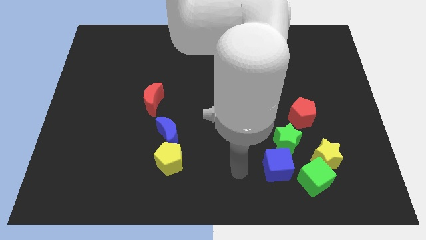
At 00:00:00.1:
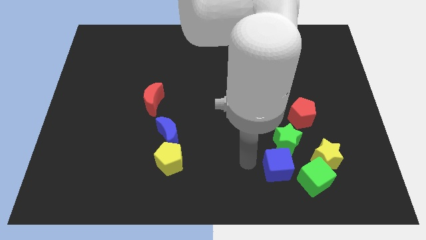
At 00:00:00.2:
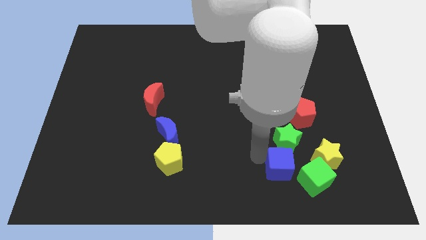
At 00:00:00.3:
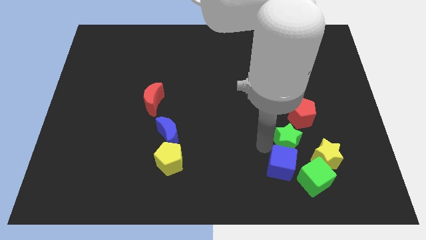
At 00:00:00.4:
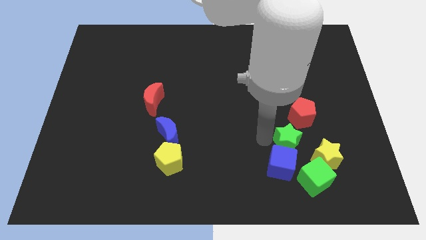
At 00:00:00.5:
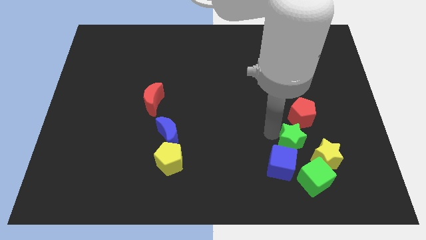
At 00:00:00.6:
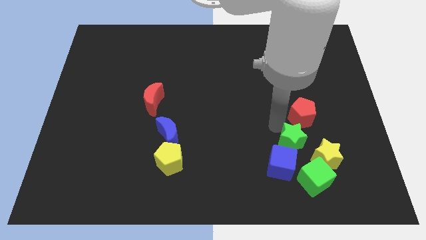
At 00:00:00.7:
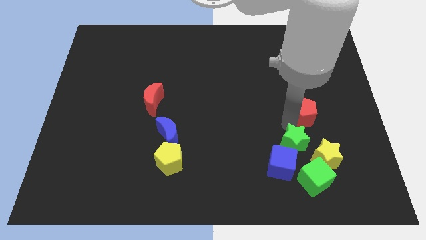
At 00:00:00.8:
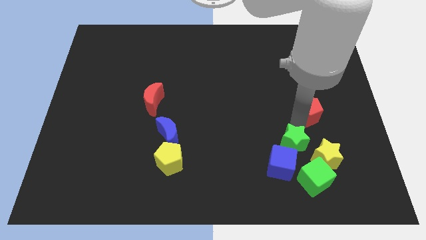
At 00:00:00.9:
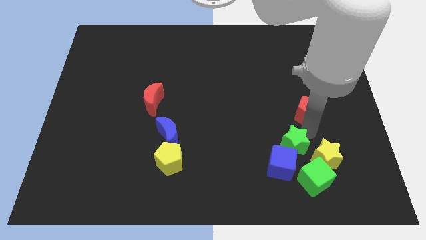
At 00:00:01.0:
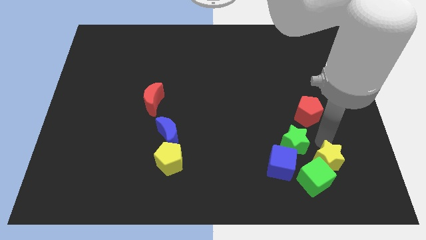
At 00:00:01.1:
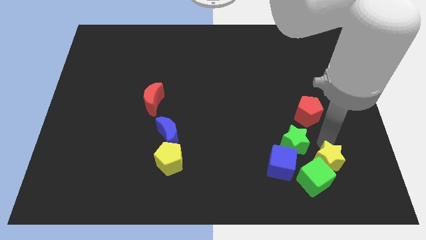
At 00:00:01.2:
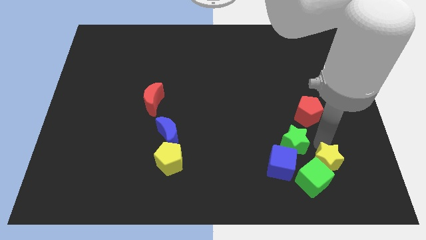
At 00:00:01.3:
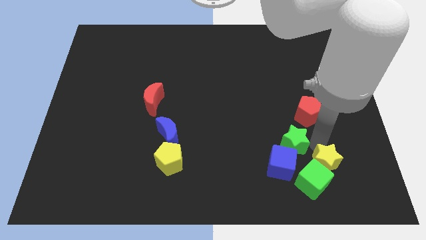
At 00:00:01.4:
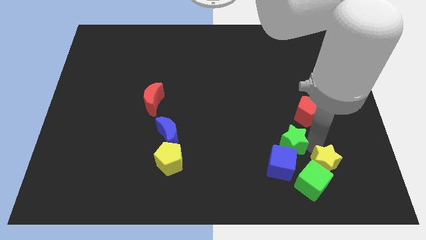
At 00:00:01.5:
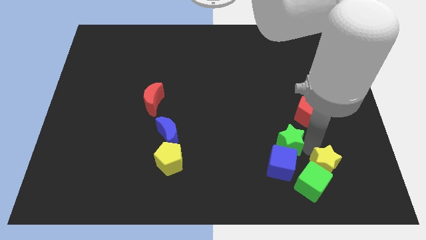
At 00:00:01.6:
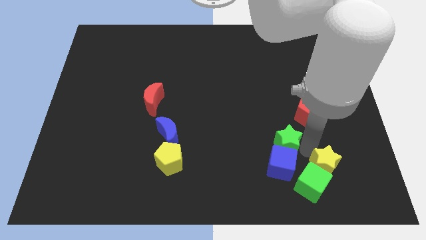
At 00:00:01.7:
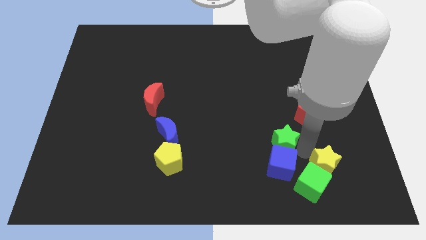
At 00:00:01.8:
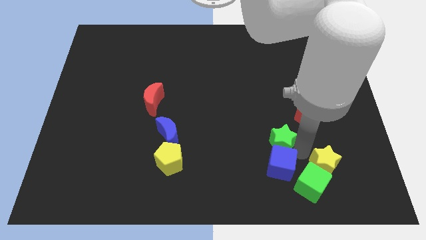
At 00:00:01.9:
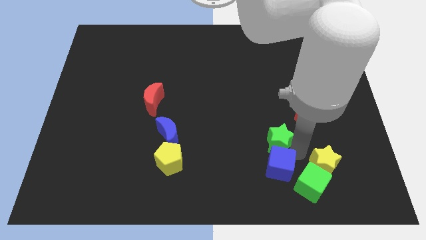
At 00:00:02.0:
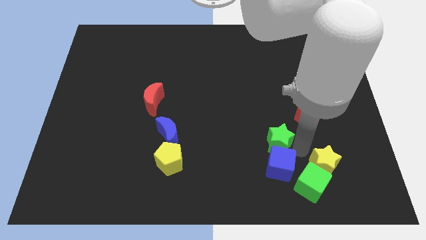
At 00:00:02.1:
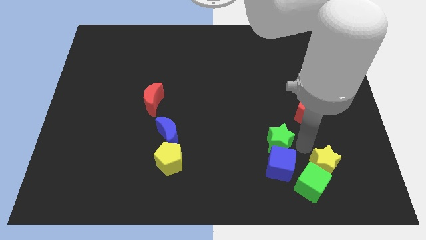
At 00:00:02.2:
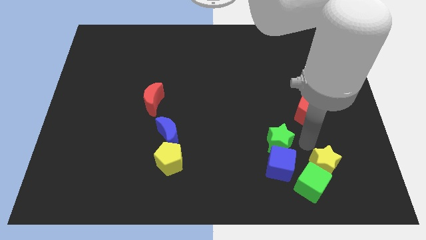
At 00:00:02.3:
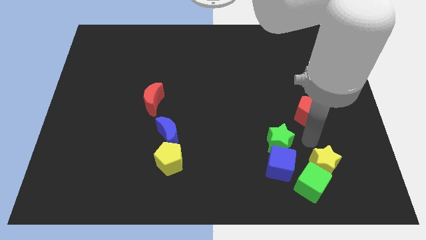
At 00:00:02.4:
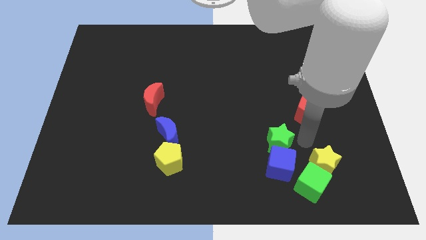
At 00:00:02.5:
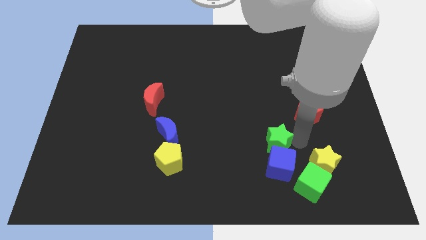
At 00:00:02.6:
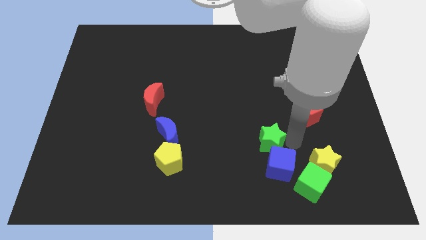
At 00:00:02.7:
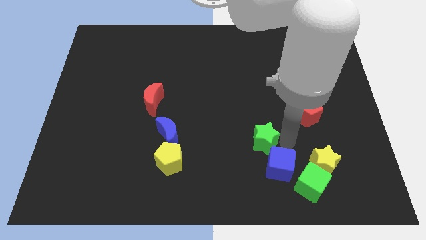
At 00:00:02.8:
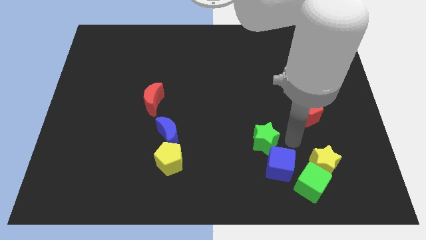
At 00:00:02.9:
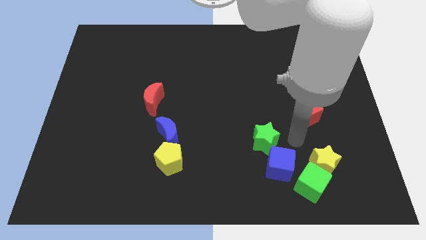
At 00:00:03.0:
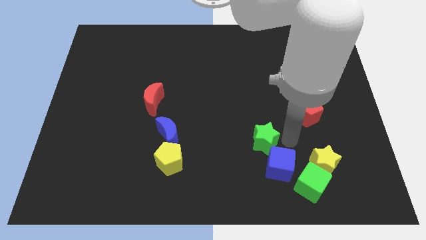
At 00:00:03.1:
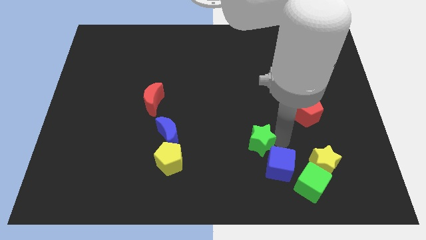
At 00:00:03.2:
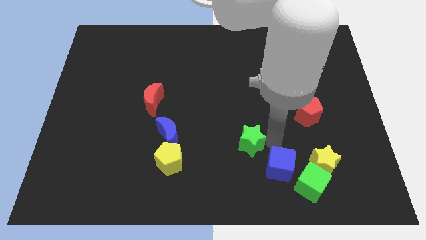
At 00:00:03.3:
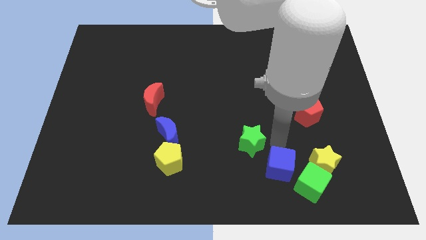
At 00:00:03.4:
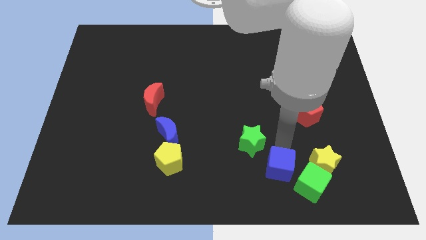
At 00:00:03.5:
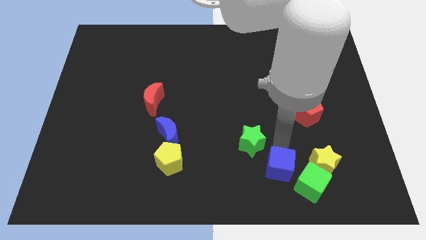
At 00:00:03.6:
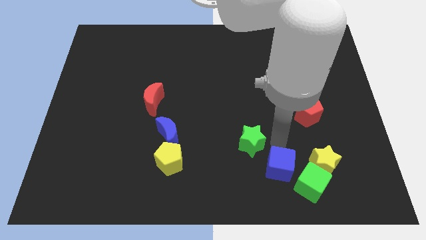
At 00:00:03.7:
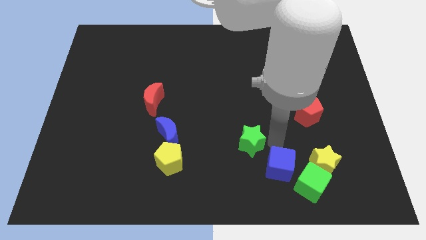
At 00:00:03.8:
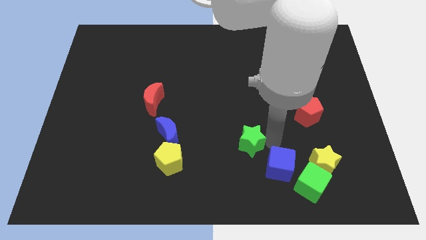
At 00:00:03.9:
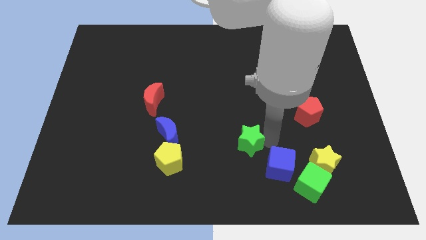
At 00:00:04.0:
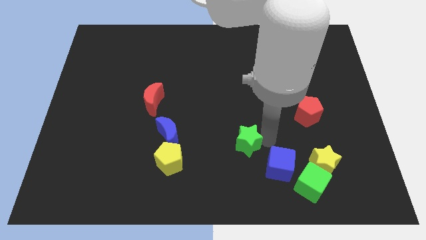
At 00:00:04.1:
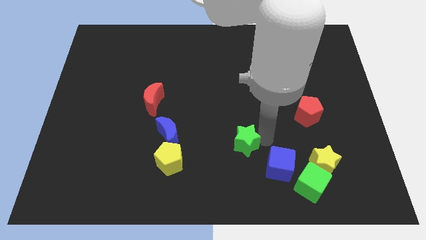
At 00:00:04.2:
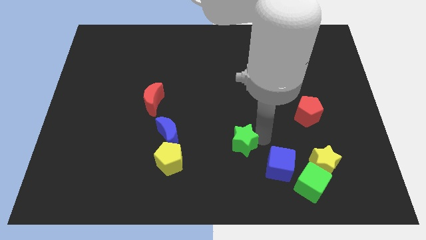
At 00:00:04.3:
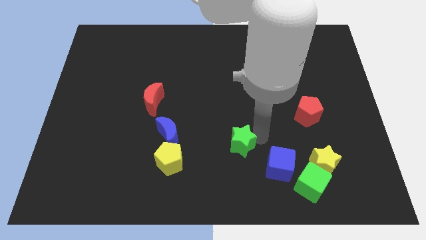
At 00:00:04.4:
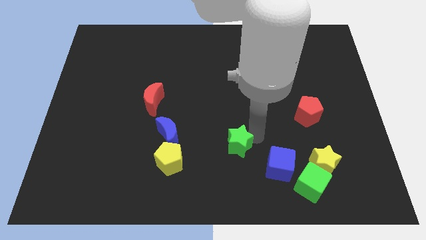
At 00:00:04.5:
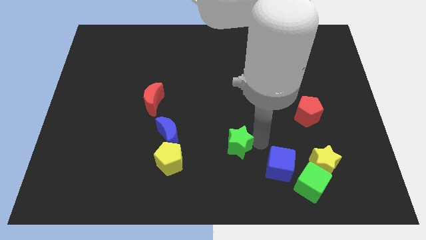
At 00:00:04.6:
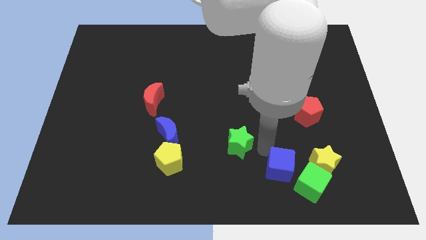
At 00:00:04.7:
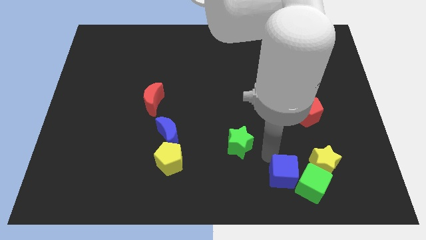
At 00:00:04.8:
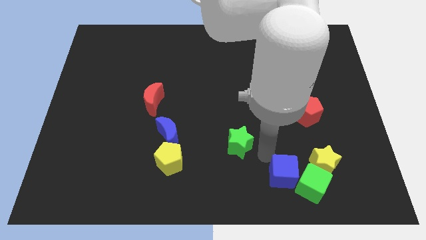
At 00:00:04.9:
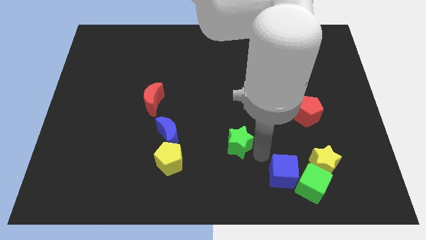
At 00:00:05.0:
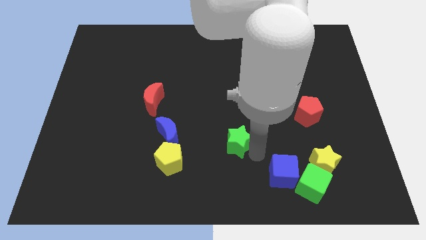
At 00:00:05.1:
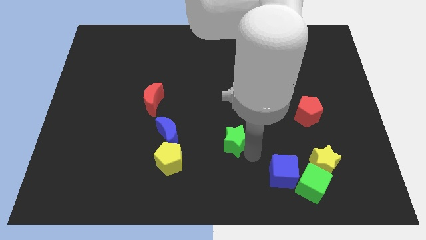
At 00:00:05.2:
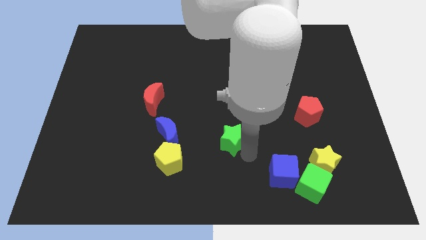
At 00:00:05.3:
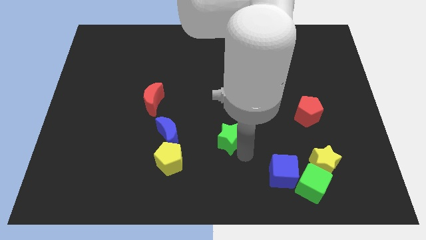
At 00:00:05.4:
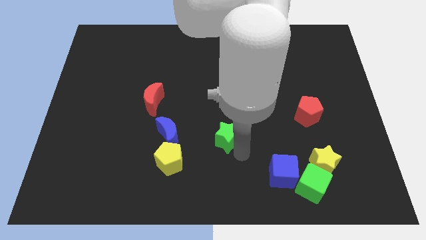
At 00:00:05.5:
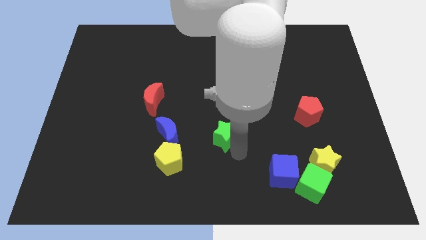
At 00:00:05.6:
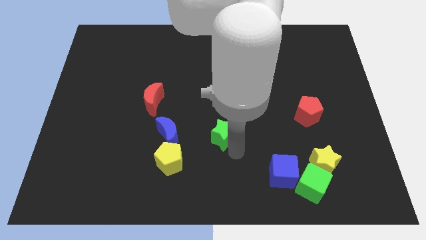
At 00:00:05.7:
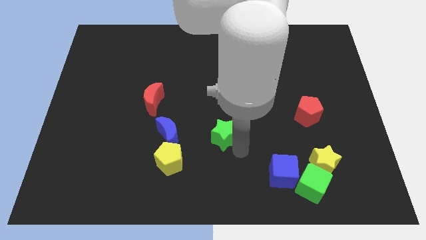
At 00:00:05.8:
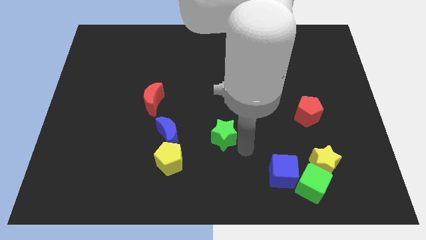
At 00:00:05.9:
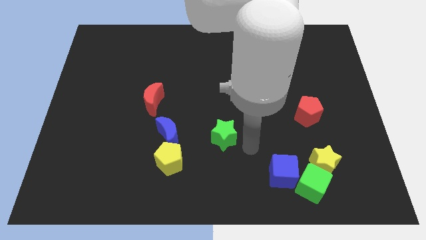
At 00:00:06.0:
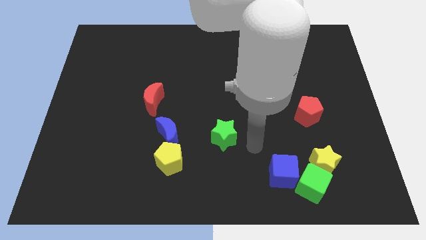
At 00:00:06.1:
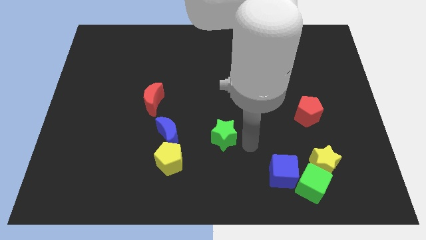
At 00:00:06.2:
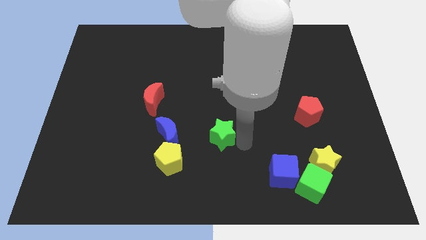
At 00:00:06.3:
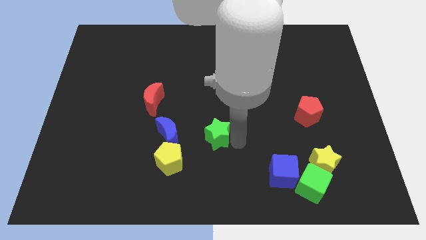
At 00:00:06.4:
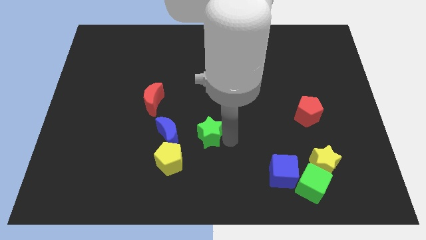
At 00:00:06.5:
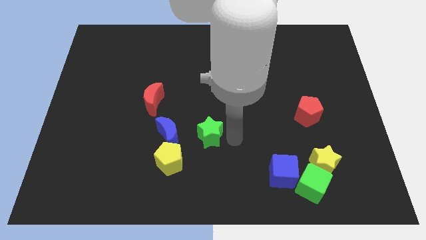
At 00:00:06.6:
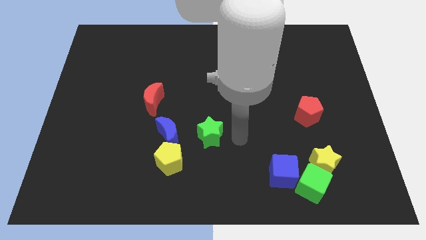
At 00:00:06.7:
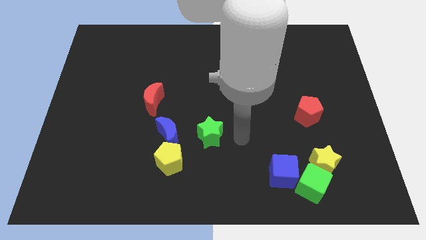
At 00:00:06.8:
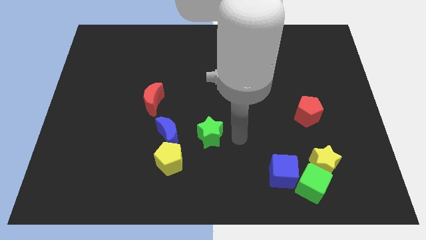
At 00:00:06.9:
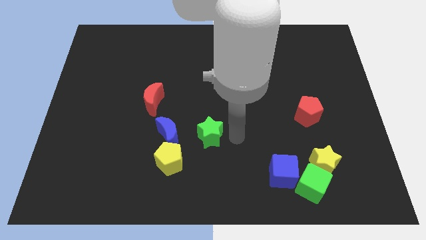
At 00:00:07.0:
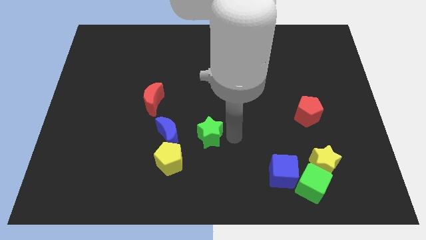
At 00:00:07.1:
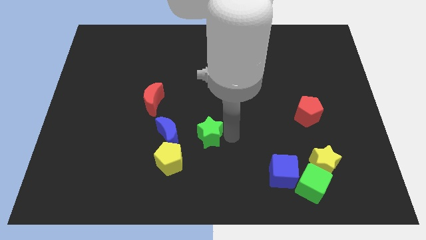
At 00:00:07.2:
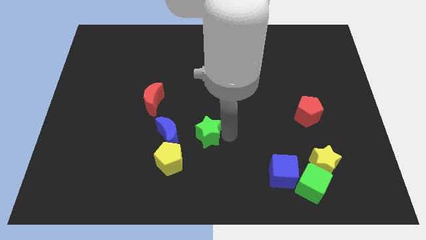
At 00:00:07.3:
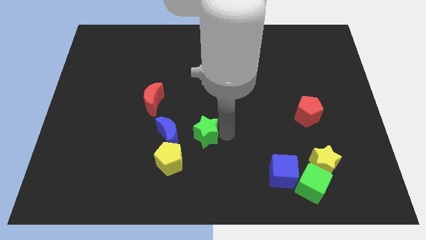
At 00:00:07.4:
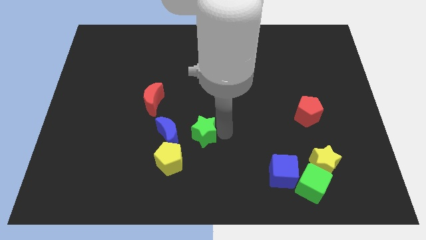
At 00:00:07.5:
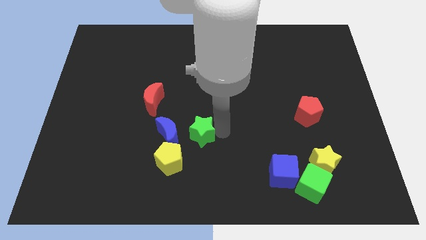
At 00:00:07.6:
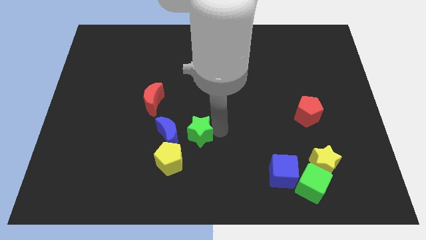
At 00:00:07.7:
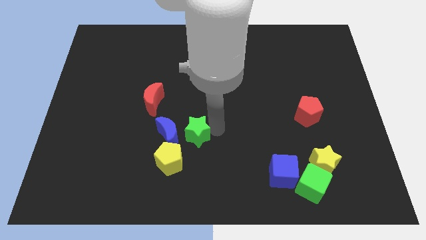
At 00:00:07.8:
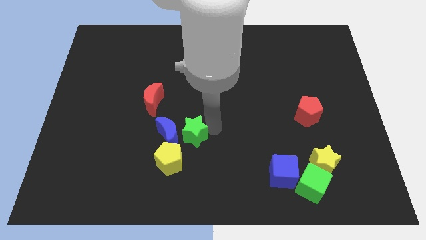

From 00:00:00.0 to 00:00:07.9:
push the green star next to the blue moon
